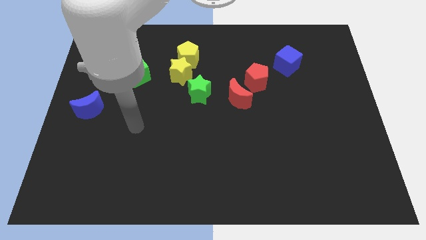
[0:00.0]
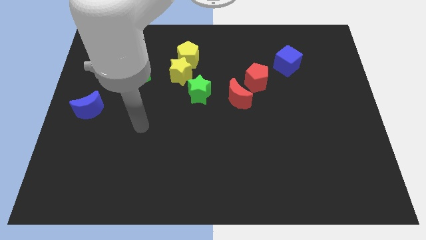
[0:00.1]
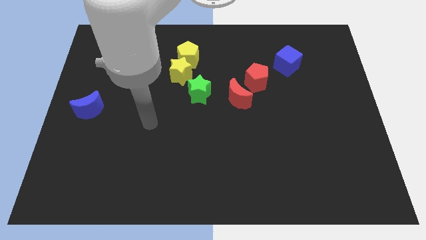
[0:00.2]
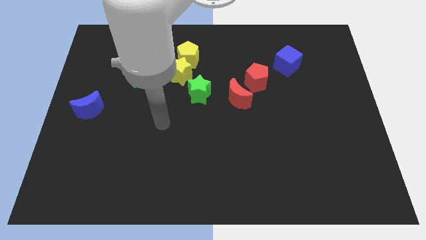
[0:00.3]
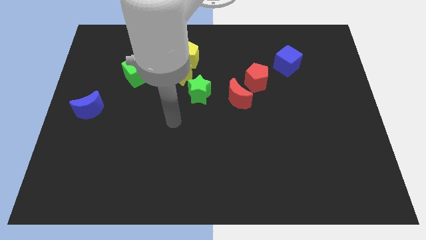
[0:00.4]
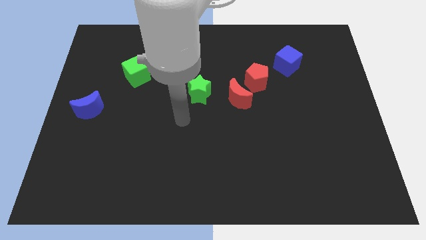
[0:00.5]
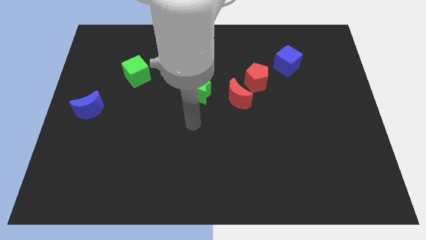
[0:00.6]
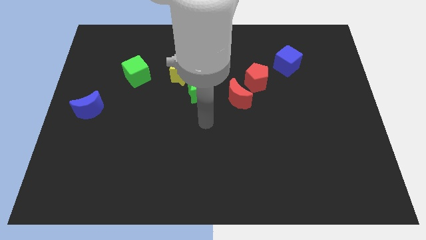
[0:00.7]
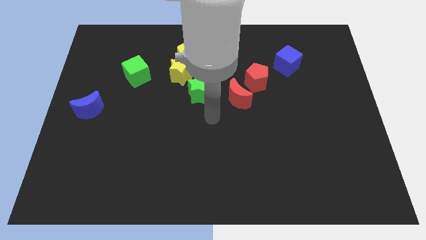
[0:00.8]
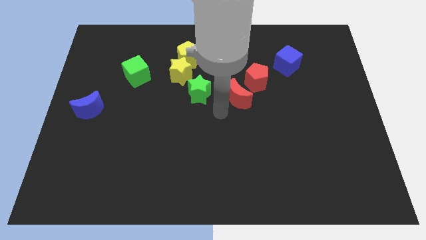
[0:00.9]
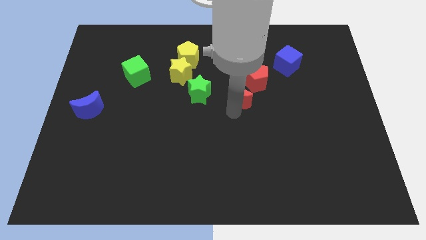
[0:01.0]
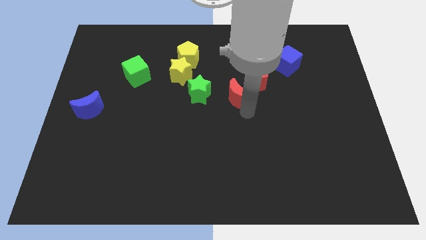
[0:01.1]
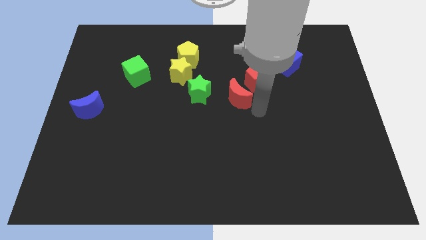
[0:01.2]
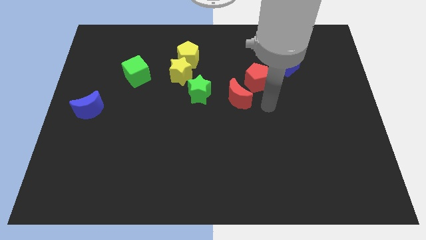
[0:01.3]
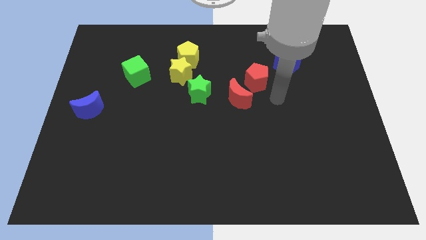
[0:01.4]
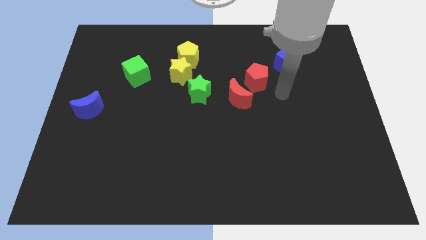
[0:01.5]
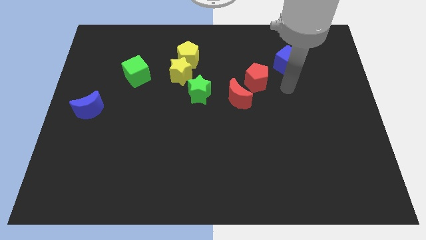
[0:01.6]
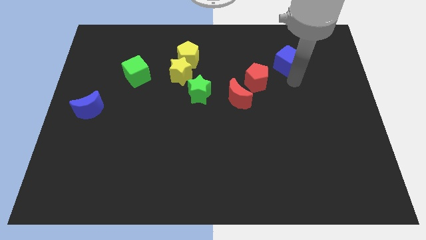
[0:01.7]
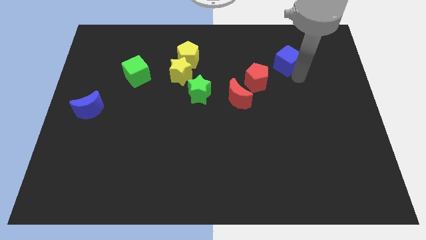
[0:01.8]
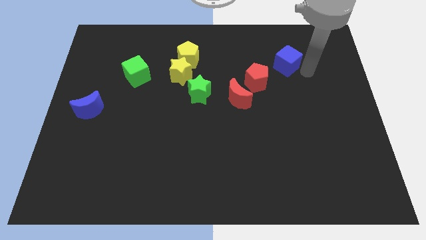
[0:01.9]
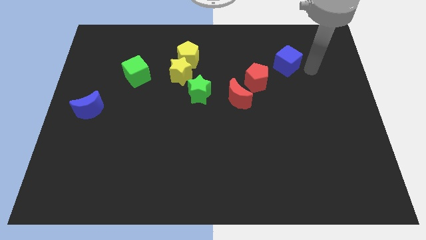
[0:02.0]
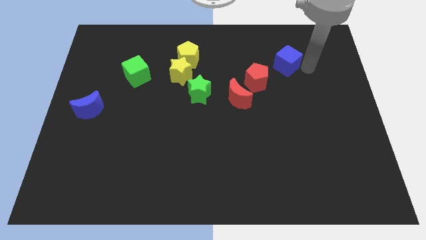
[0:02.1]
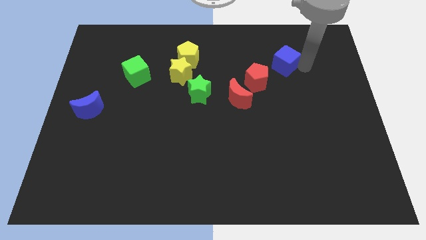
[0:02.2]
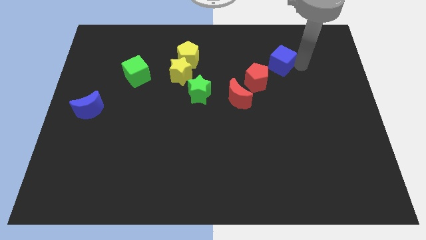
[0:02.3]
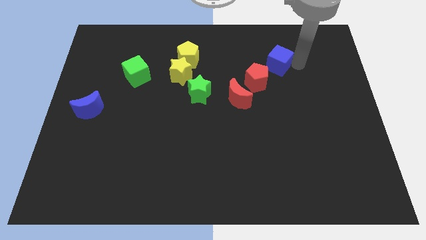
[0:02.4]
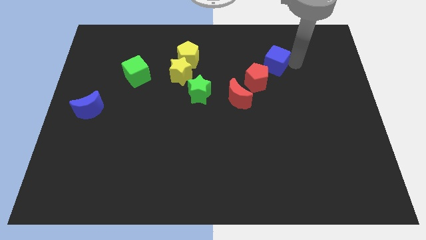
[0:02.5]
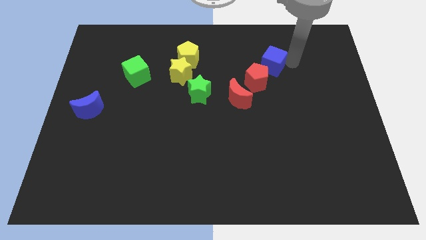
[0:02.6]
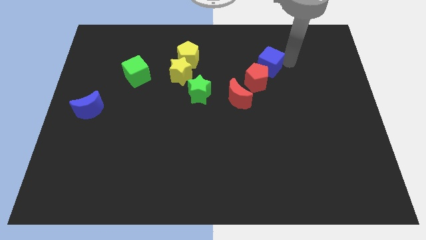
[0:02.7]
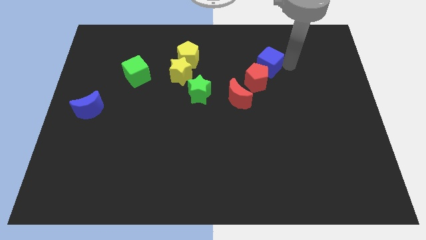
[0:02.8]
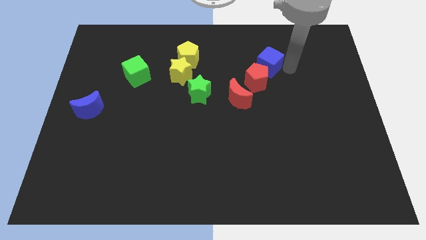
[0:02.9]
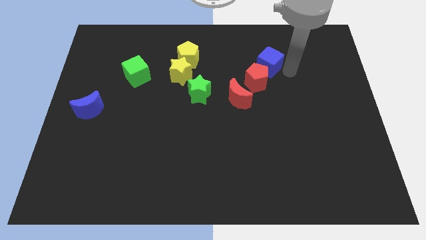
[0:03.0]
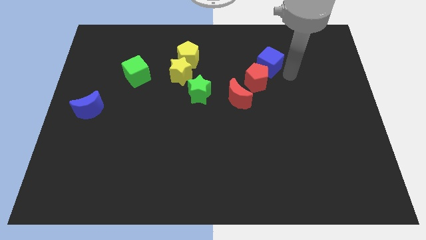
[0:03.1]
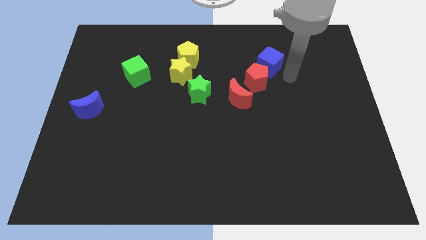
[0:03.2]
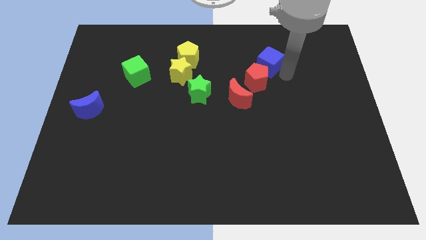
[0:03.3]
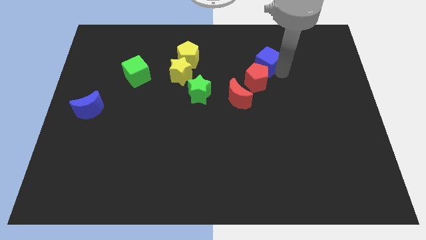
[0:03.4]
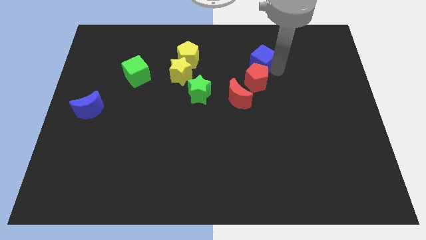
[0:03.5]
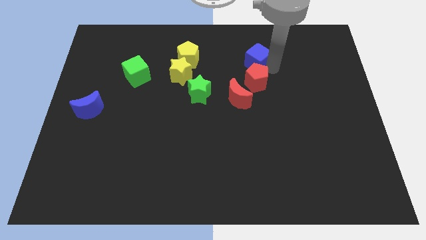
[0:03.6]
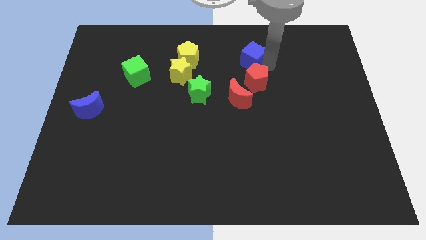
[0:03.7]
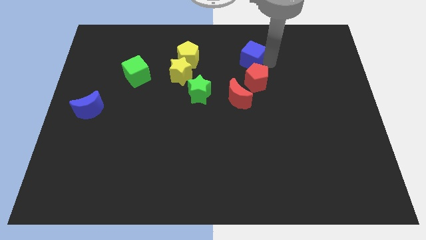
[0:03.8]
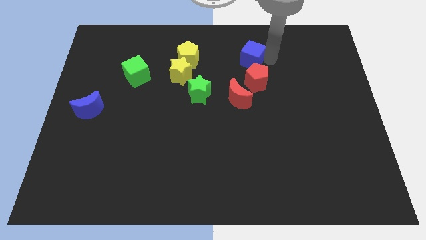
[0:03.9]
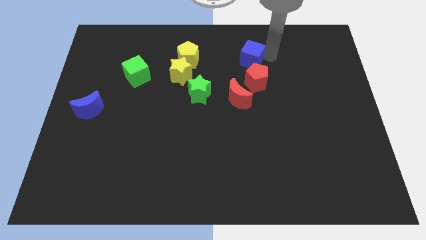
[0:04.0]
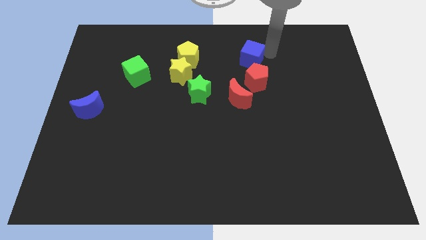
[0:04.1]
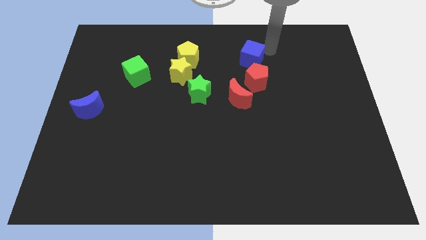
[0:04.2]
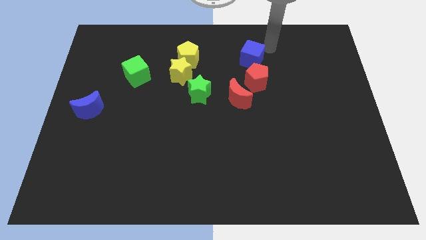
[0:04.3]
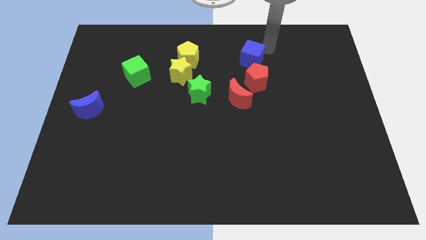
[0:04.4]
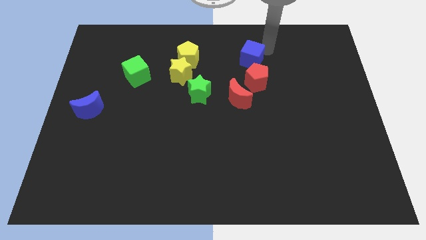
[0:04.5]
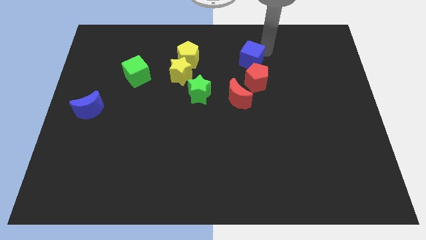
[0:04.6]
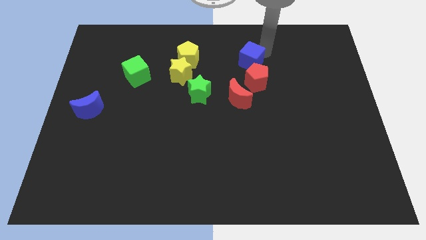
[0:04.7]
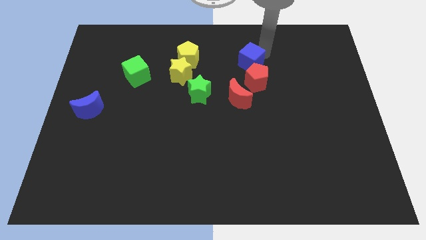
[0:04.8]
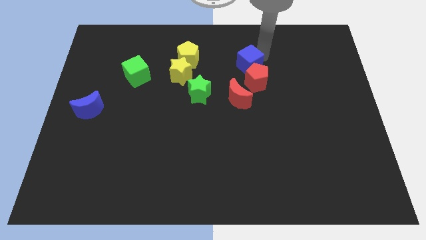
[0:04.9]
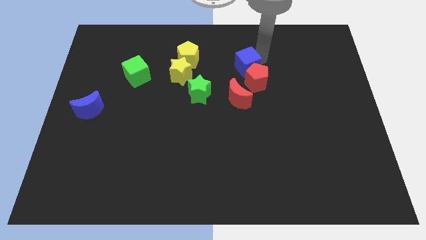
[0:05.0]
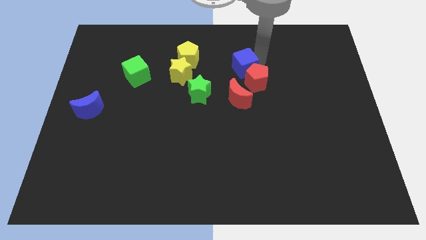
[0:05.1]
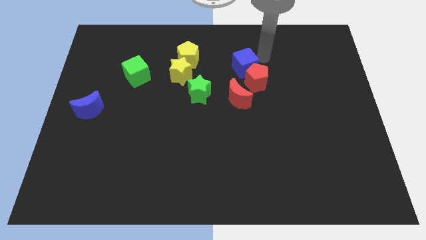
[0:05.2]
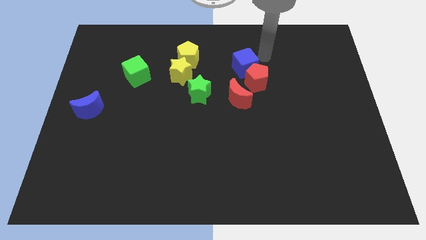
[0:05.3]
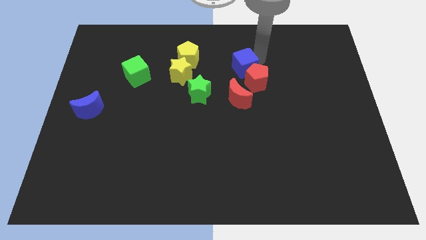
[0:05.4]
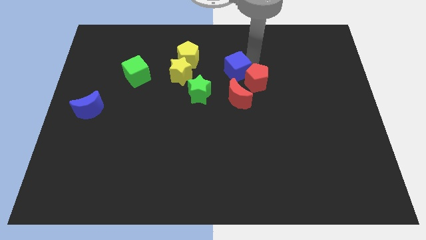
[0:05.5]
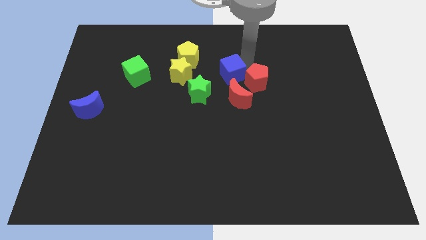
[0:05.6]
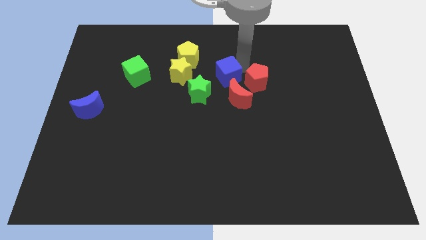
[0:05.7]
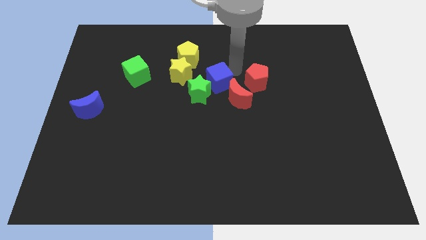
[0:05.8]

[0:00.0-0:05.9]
slide the blue cube to the green star

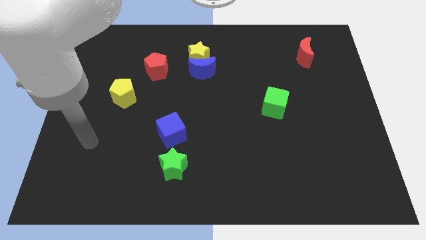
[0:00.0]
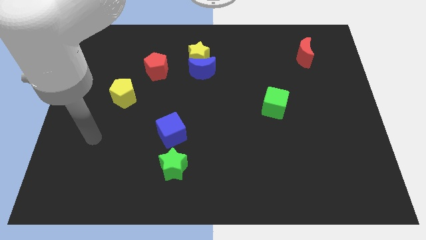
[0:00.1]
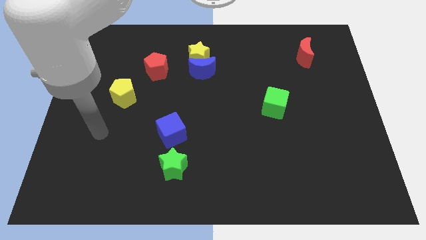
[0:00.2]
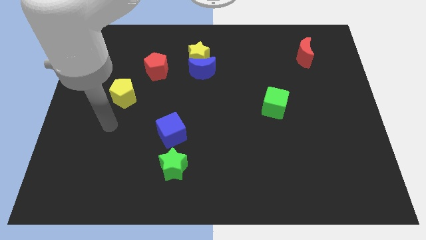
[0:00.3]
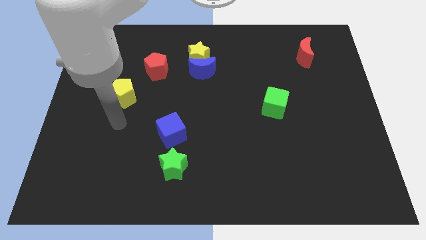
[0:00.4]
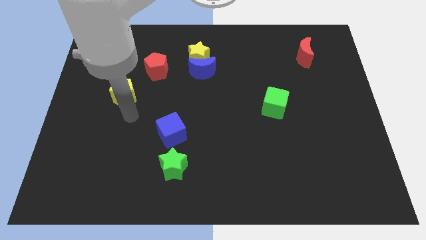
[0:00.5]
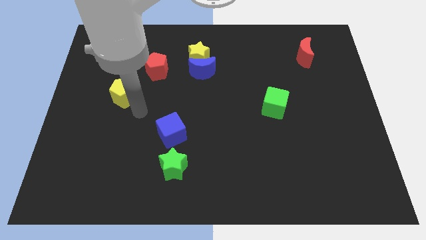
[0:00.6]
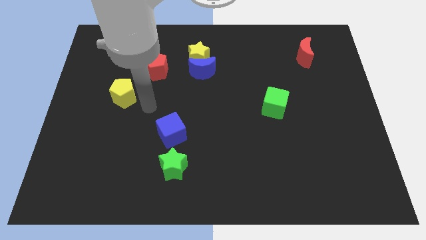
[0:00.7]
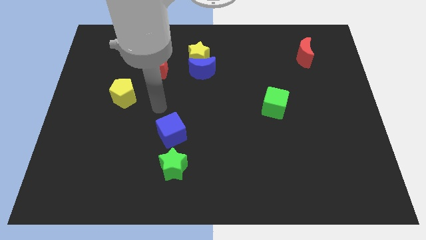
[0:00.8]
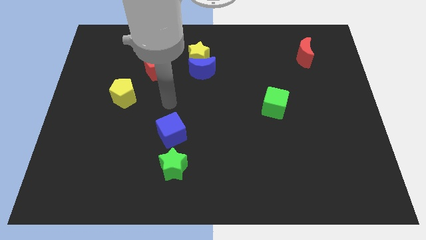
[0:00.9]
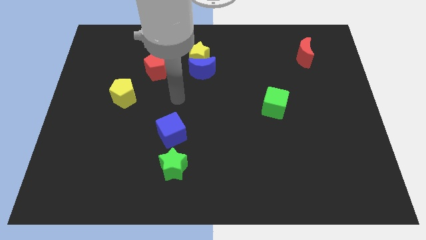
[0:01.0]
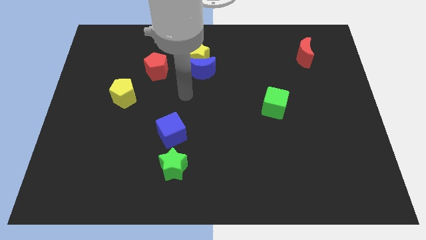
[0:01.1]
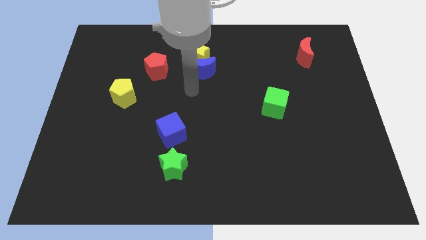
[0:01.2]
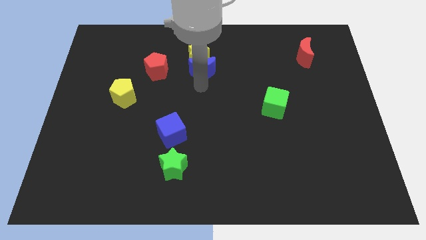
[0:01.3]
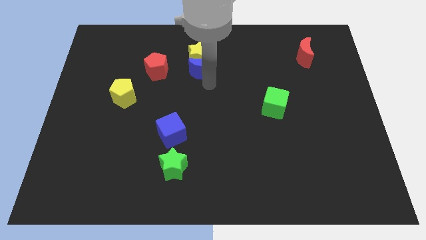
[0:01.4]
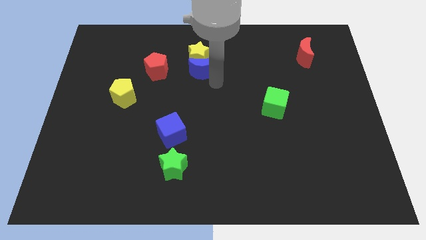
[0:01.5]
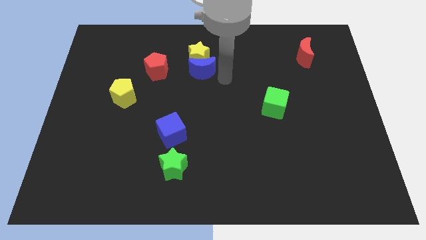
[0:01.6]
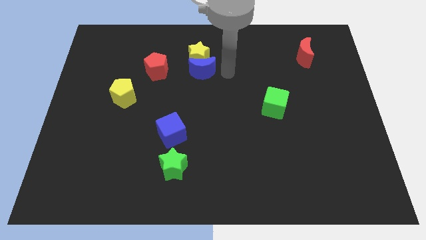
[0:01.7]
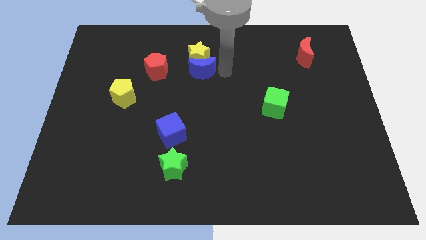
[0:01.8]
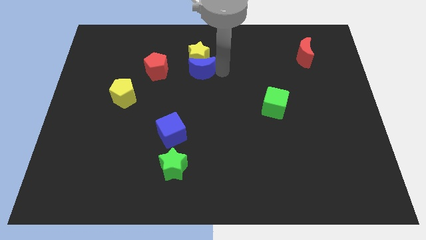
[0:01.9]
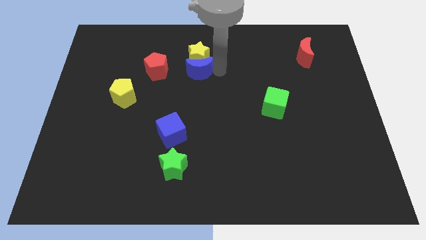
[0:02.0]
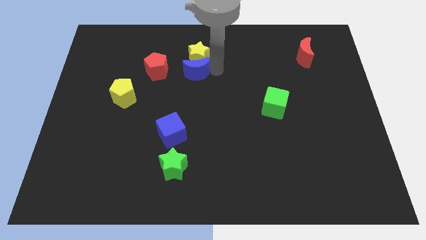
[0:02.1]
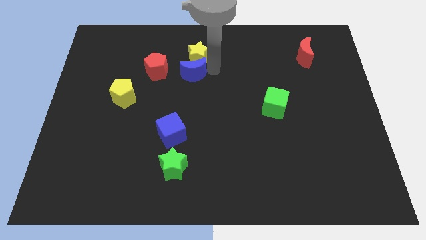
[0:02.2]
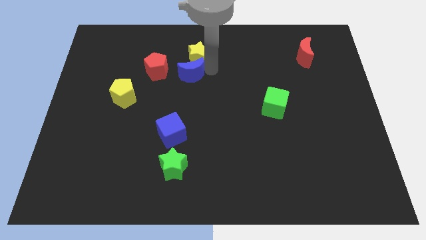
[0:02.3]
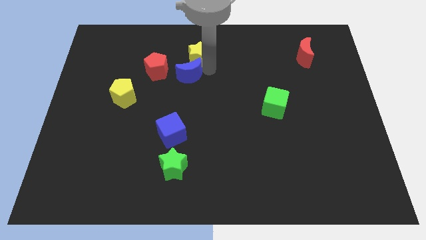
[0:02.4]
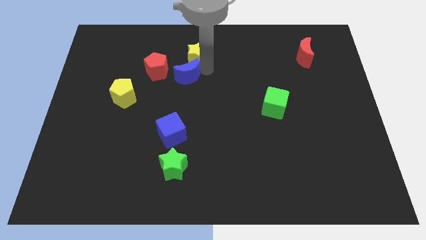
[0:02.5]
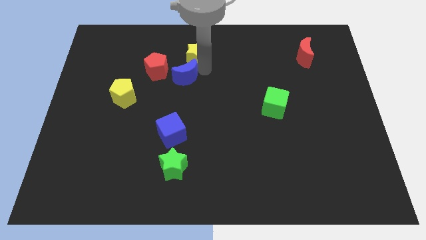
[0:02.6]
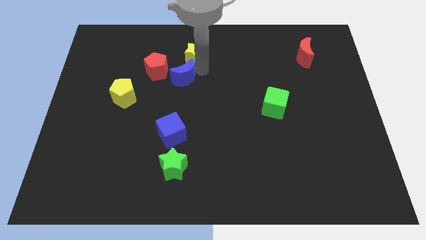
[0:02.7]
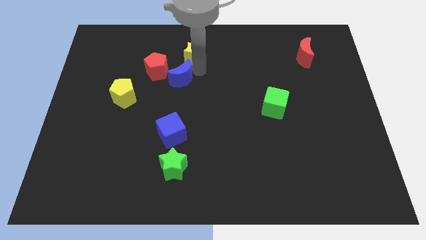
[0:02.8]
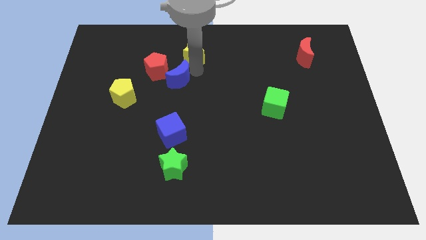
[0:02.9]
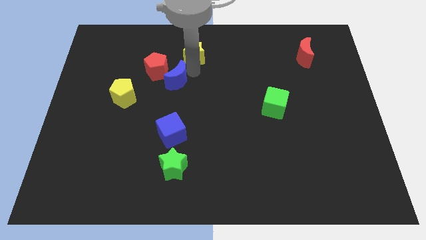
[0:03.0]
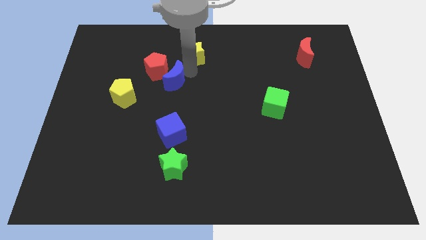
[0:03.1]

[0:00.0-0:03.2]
move the blue moon next to the red pentagon
